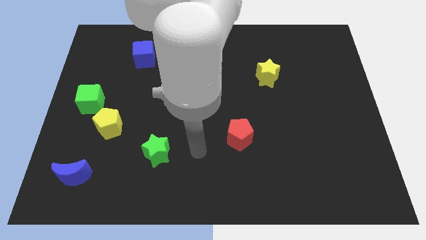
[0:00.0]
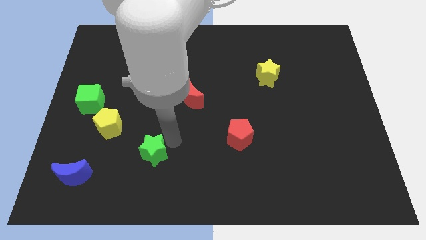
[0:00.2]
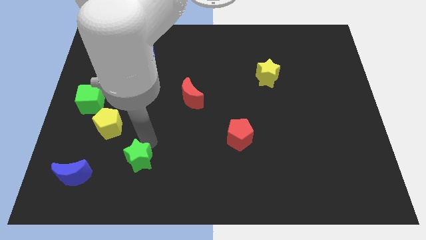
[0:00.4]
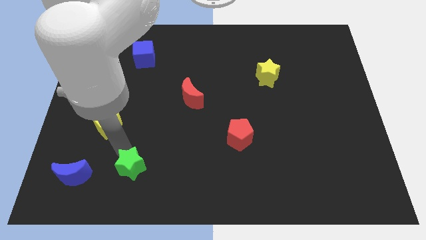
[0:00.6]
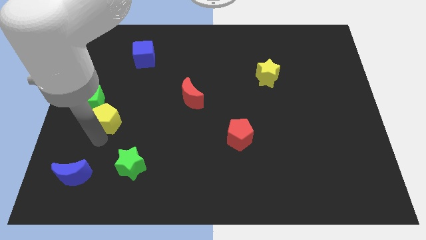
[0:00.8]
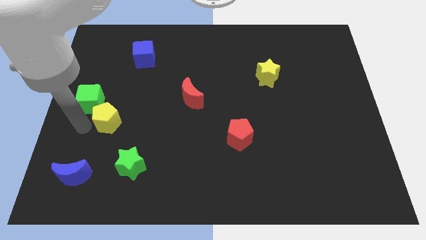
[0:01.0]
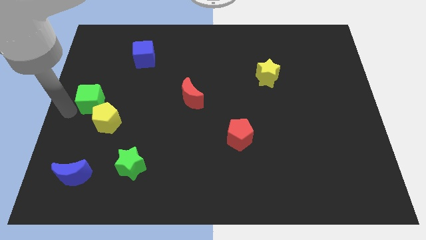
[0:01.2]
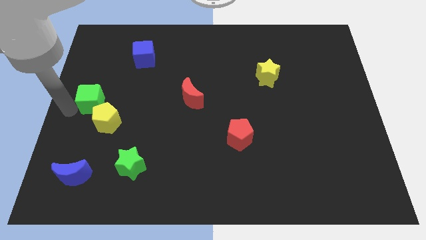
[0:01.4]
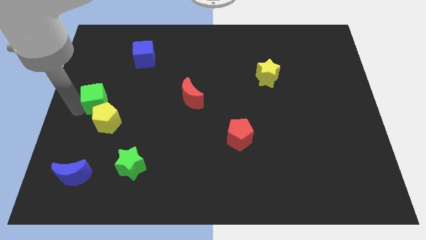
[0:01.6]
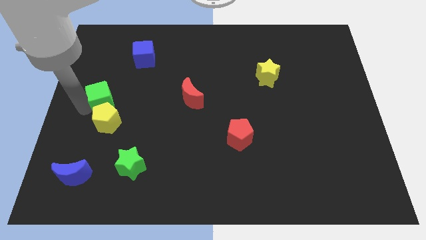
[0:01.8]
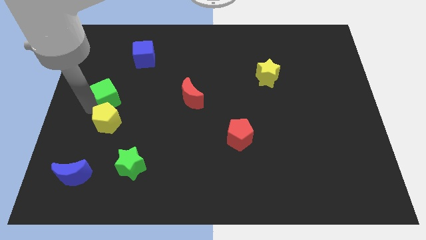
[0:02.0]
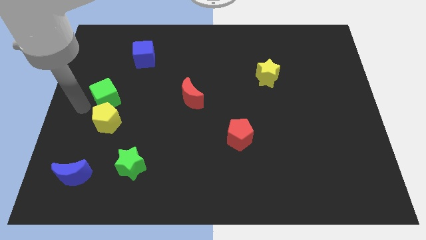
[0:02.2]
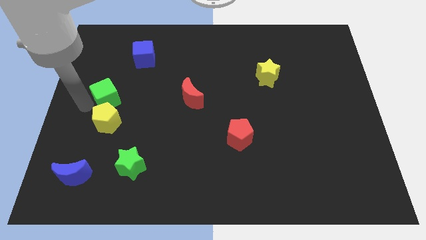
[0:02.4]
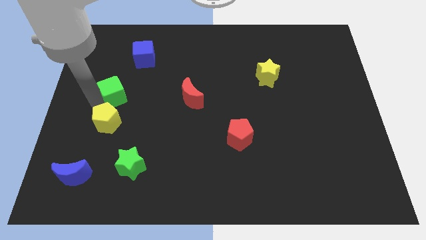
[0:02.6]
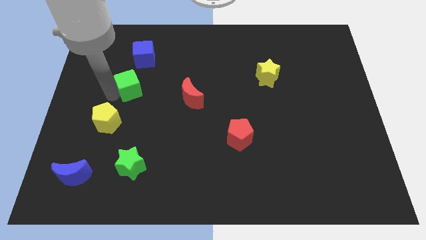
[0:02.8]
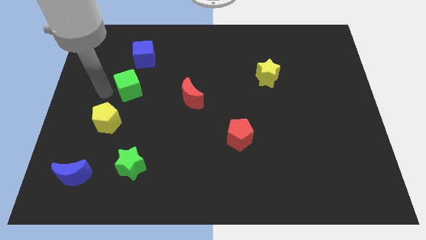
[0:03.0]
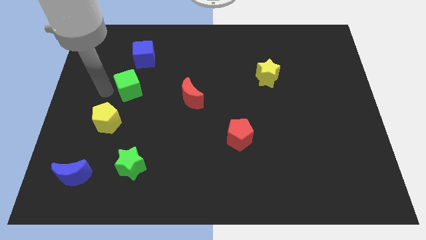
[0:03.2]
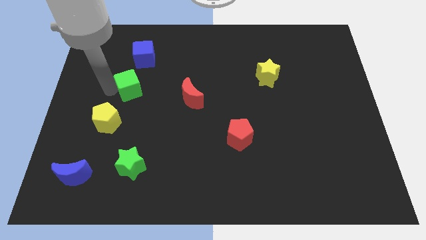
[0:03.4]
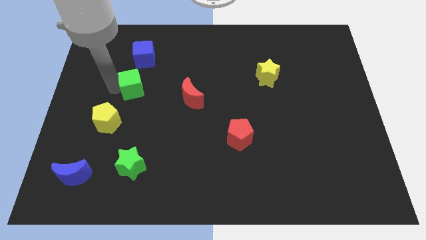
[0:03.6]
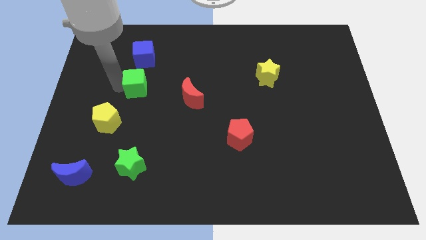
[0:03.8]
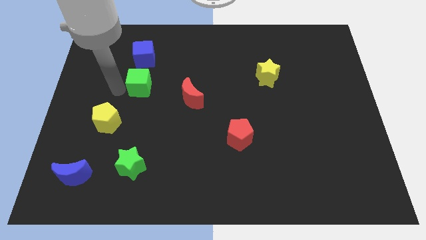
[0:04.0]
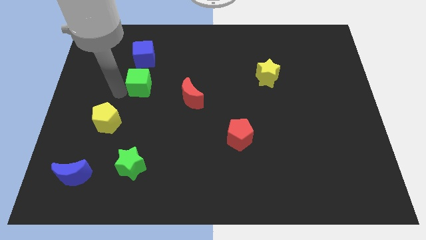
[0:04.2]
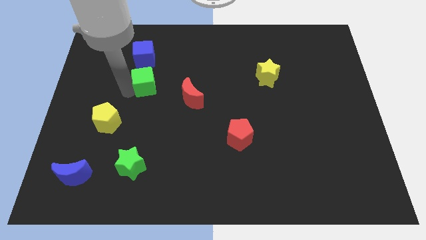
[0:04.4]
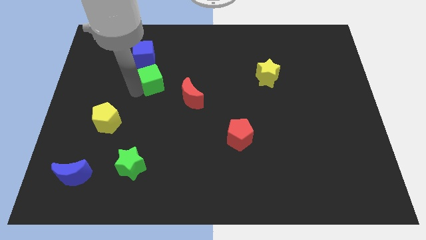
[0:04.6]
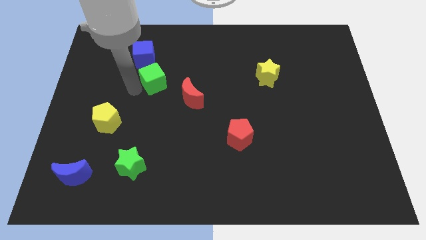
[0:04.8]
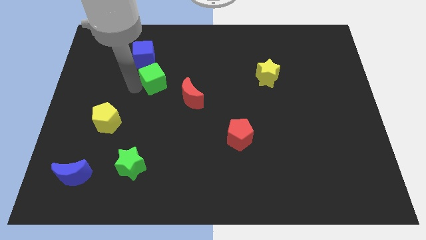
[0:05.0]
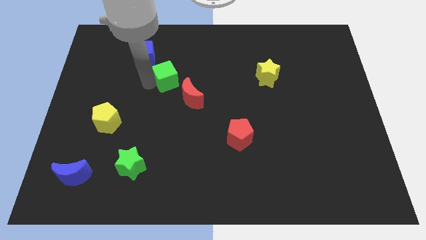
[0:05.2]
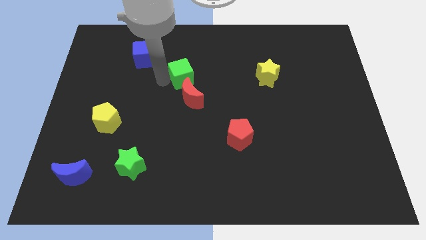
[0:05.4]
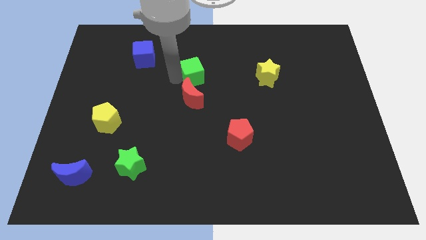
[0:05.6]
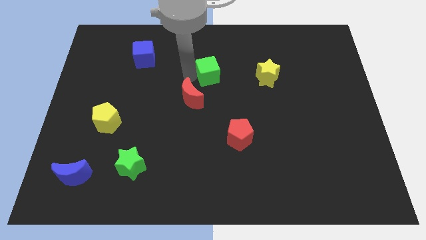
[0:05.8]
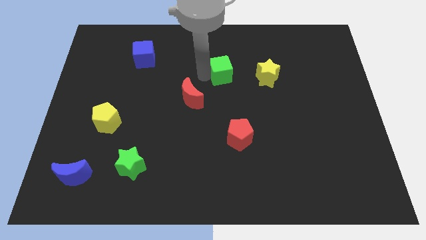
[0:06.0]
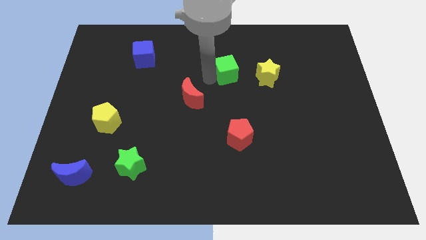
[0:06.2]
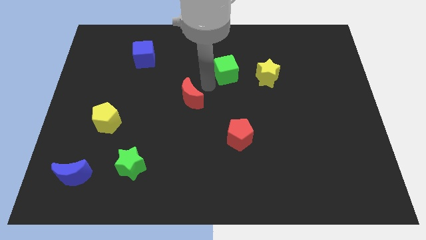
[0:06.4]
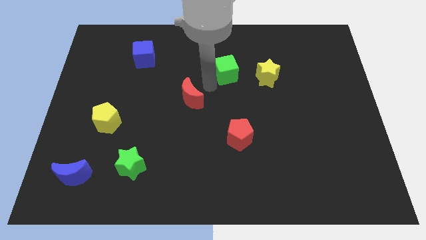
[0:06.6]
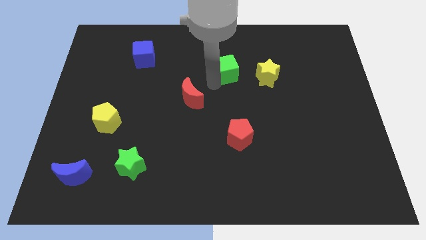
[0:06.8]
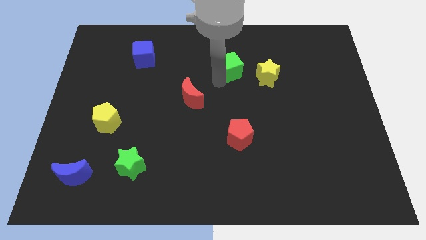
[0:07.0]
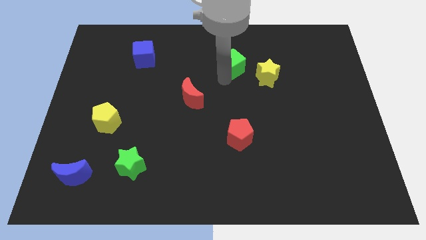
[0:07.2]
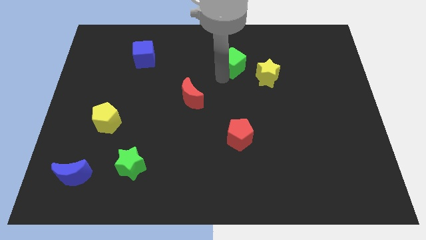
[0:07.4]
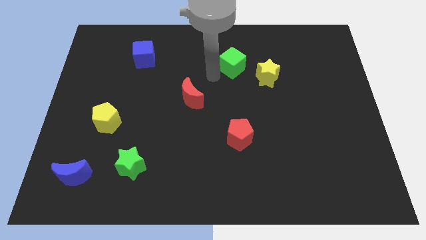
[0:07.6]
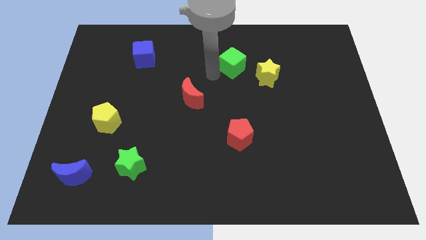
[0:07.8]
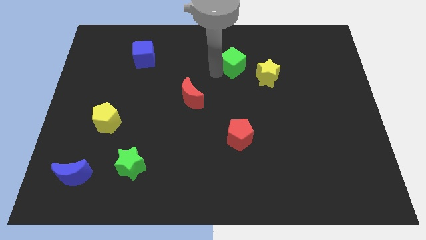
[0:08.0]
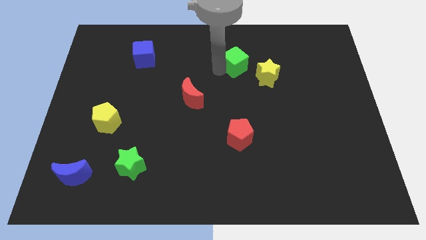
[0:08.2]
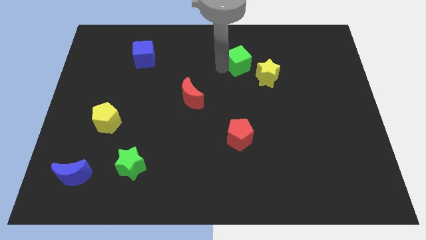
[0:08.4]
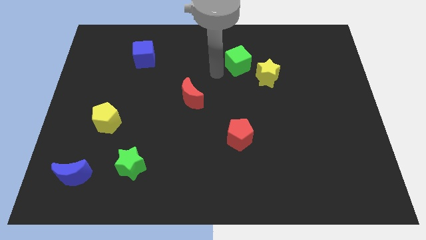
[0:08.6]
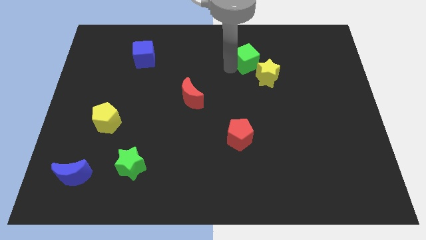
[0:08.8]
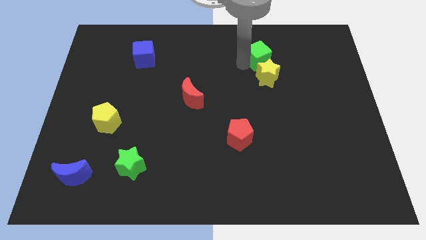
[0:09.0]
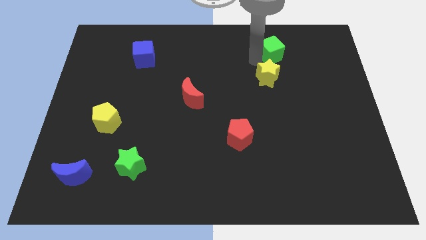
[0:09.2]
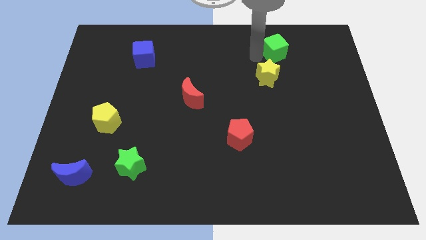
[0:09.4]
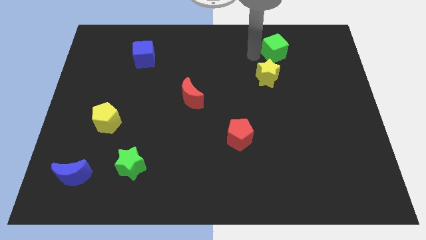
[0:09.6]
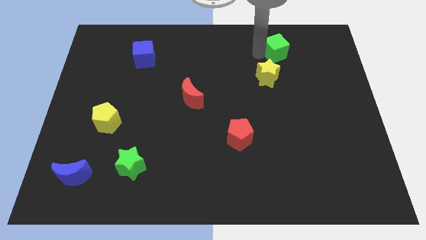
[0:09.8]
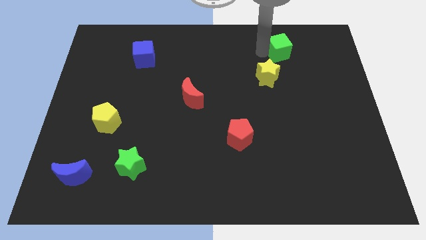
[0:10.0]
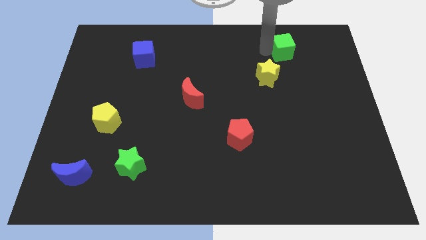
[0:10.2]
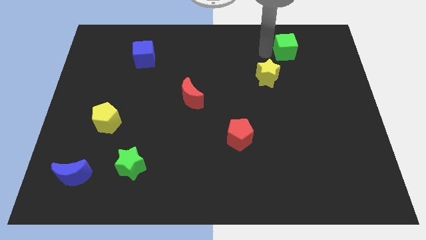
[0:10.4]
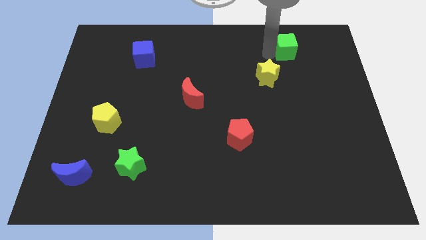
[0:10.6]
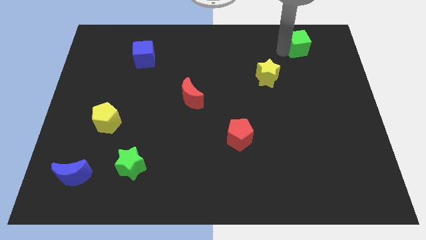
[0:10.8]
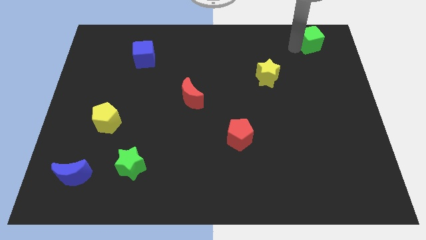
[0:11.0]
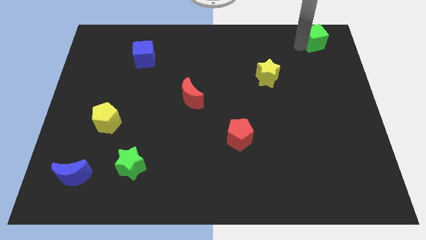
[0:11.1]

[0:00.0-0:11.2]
move the green cube to the top right of the board

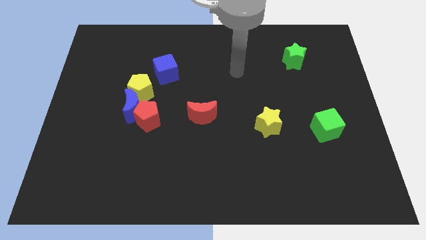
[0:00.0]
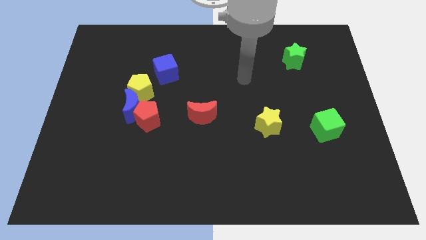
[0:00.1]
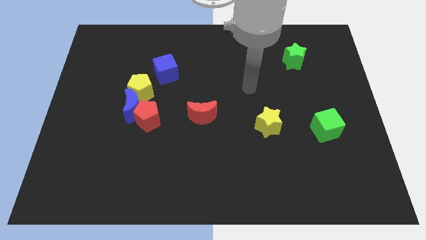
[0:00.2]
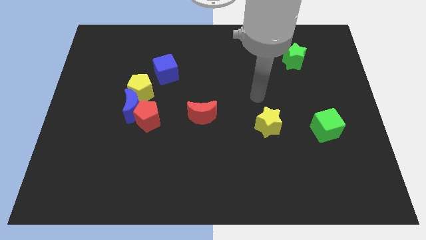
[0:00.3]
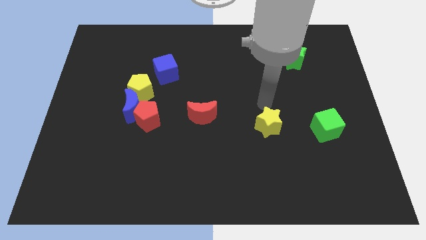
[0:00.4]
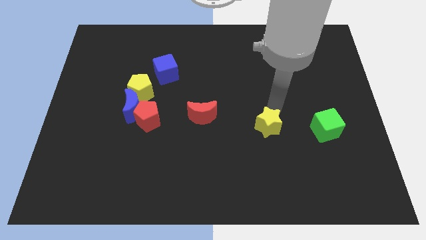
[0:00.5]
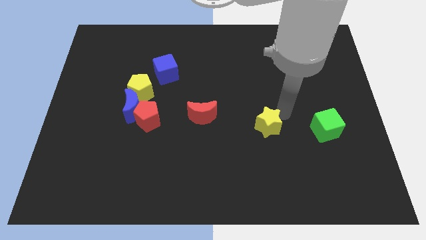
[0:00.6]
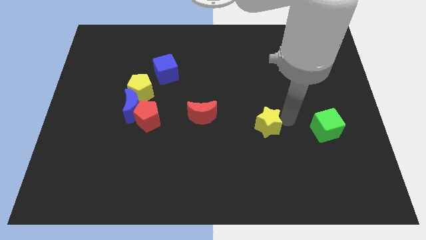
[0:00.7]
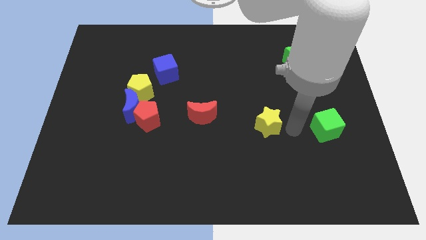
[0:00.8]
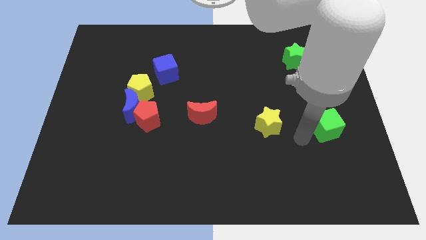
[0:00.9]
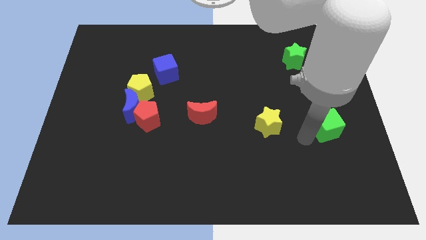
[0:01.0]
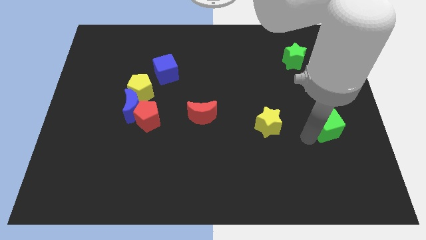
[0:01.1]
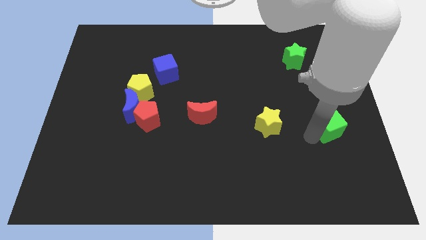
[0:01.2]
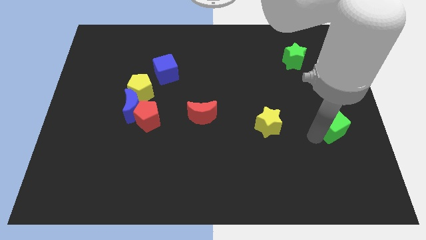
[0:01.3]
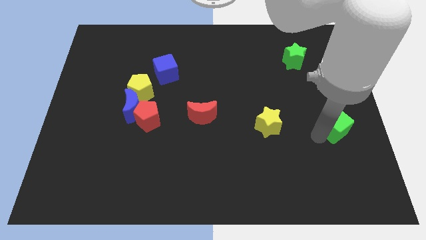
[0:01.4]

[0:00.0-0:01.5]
move the green cube to the right side
